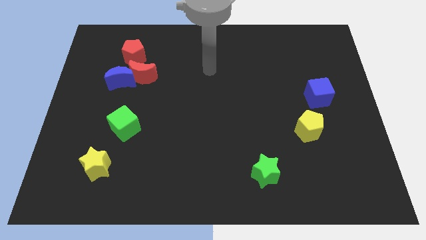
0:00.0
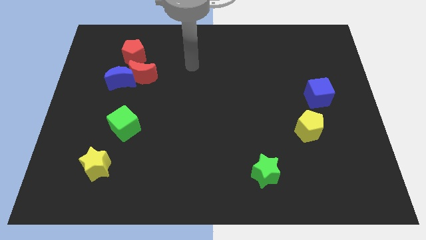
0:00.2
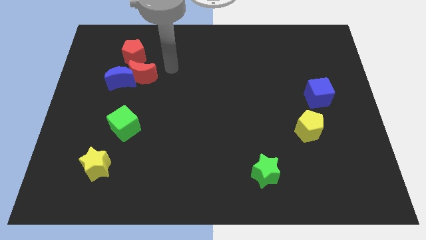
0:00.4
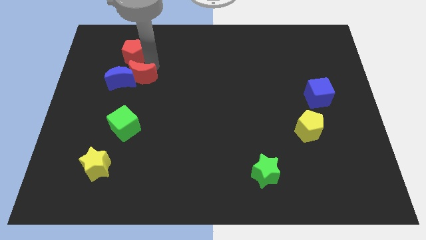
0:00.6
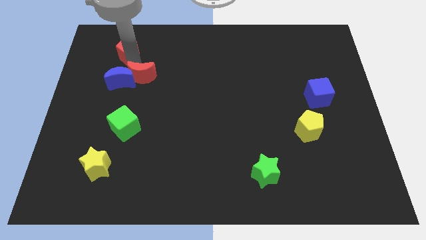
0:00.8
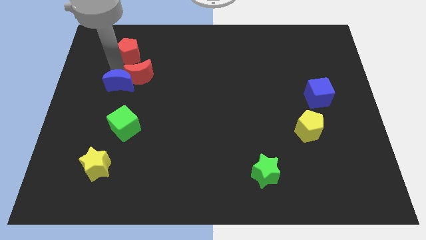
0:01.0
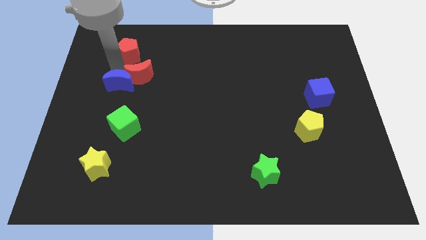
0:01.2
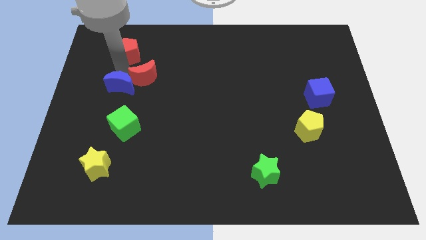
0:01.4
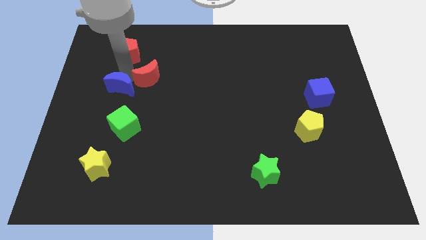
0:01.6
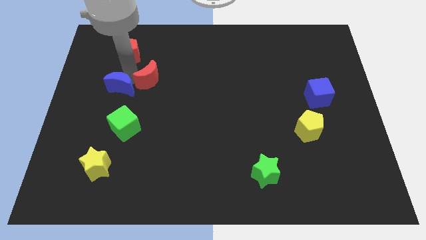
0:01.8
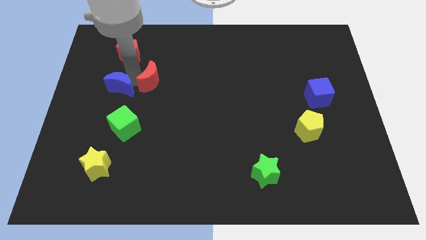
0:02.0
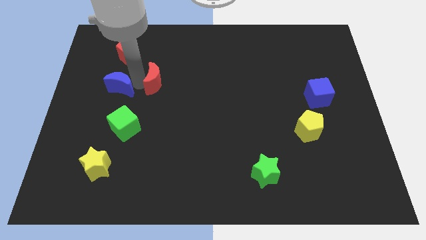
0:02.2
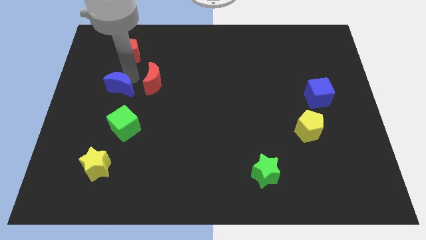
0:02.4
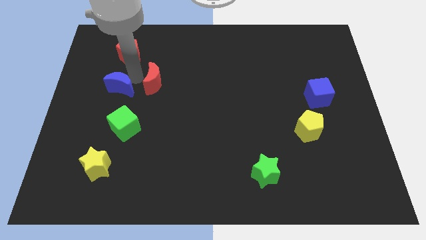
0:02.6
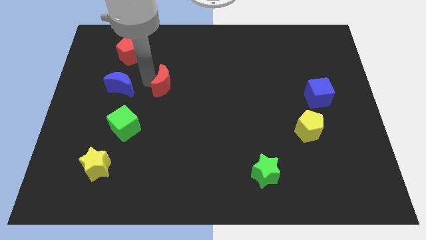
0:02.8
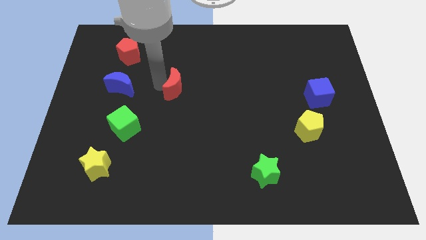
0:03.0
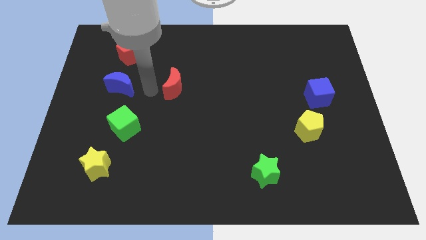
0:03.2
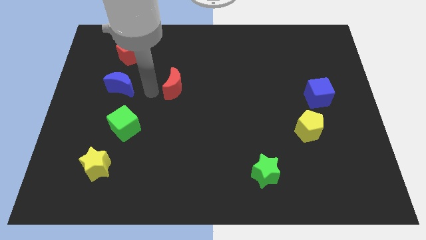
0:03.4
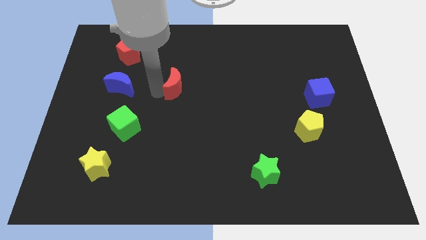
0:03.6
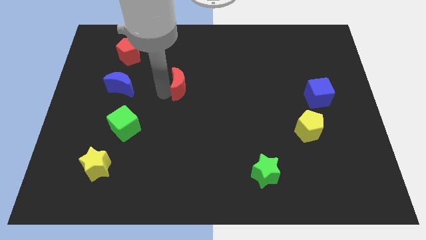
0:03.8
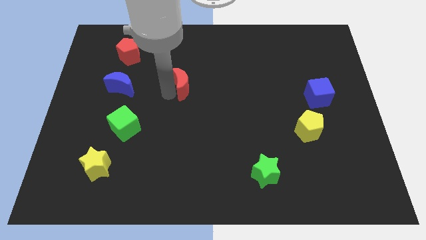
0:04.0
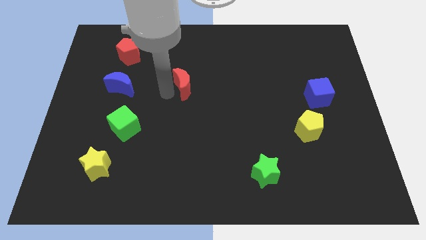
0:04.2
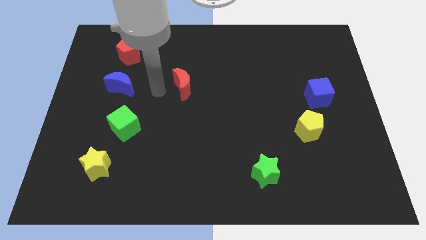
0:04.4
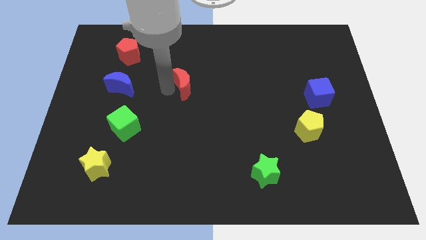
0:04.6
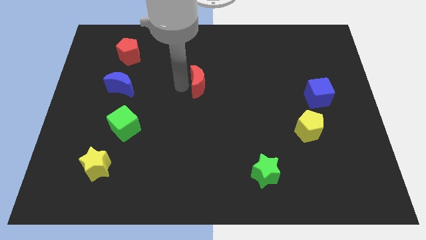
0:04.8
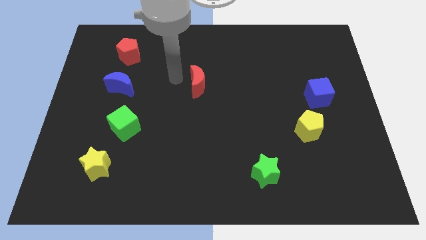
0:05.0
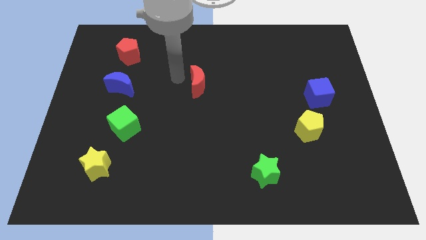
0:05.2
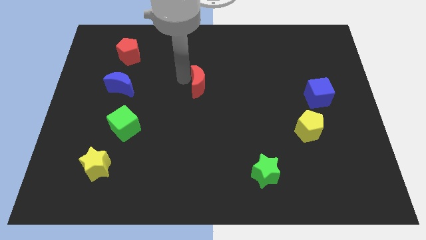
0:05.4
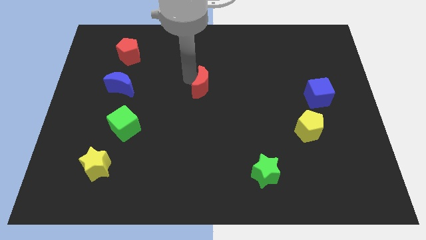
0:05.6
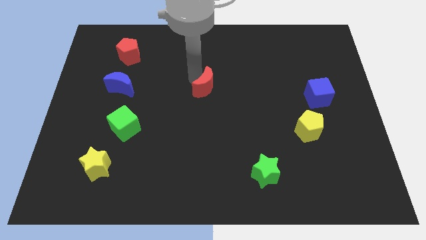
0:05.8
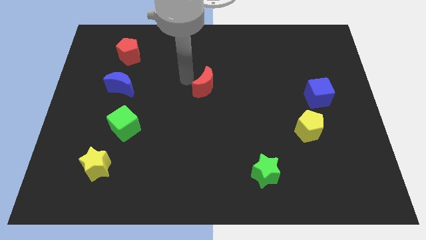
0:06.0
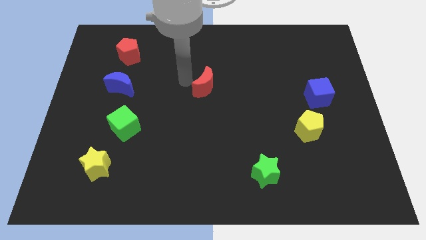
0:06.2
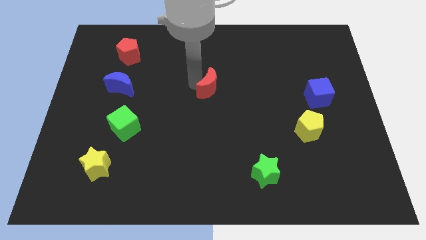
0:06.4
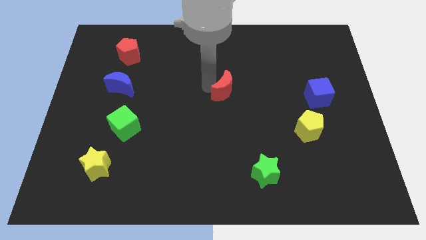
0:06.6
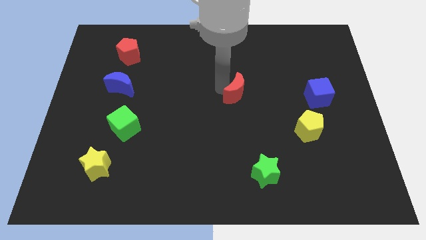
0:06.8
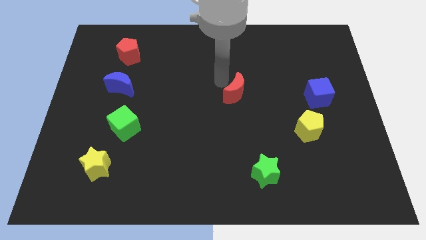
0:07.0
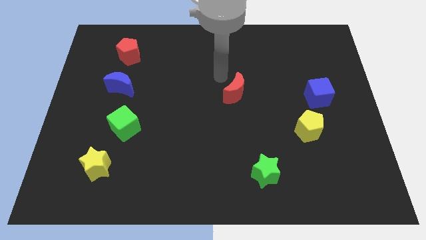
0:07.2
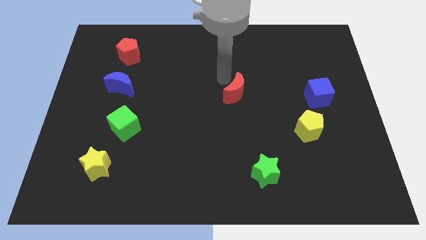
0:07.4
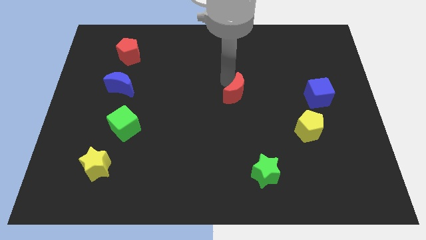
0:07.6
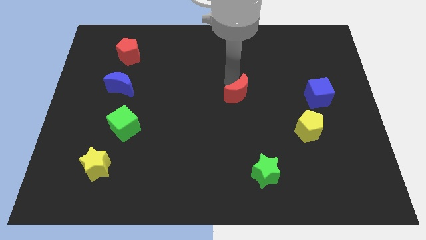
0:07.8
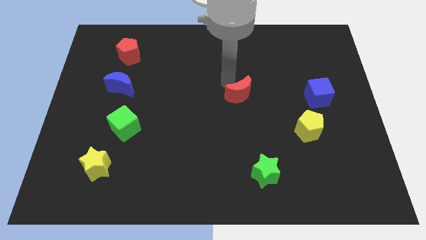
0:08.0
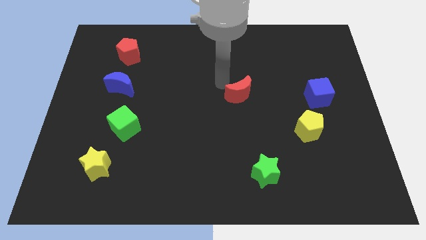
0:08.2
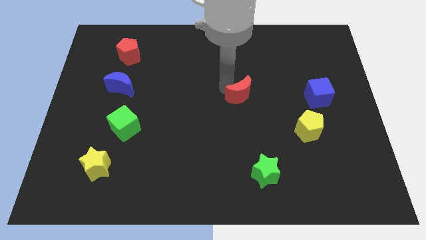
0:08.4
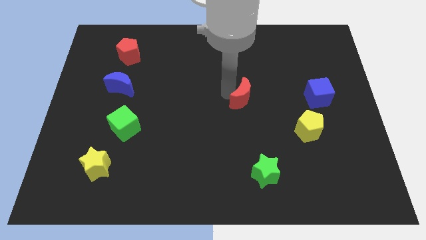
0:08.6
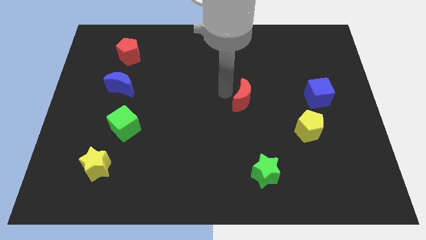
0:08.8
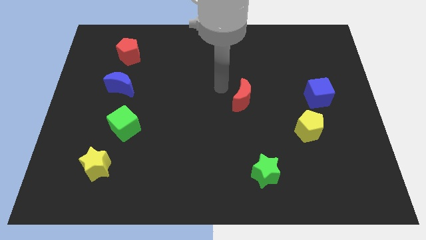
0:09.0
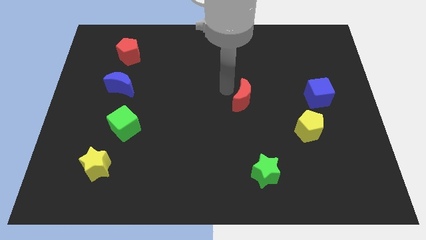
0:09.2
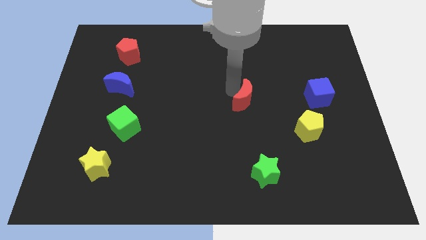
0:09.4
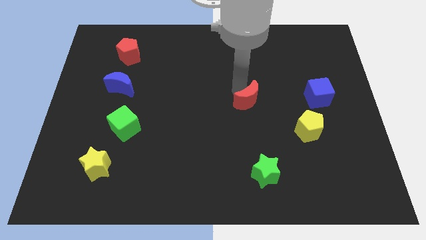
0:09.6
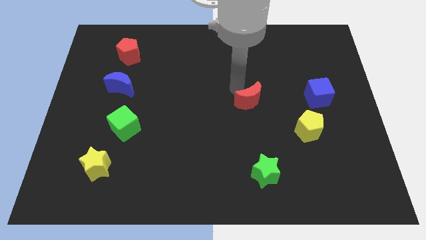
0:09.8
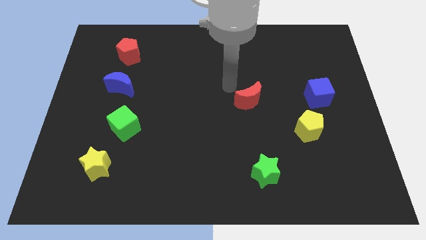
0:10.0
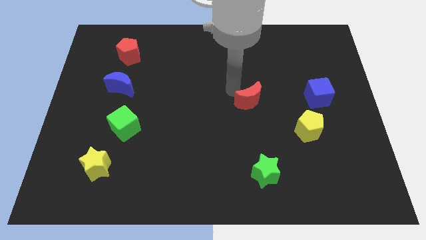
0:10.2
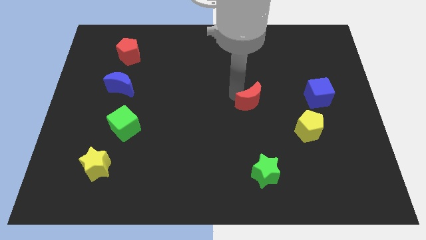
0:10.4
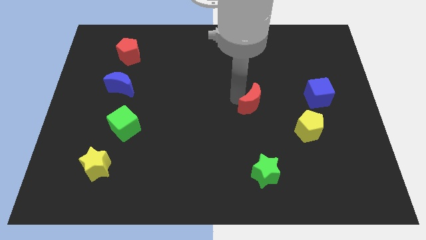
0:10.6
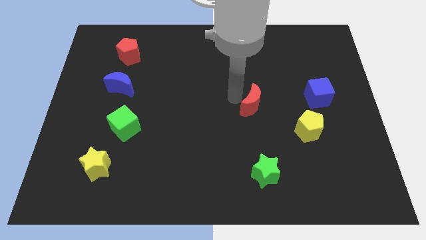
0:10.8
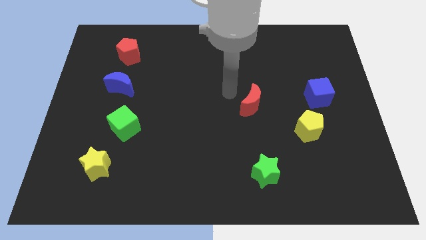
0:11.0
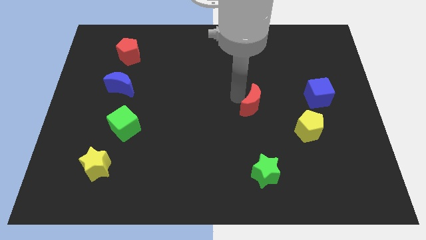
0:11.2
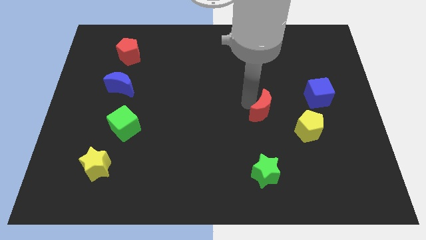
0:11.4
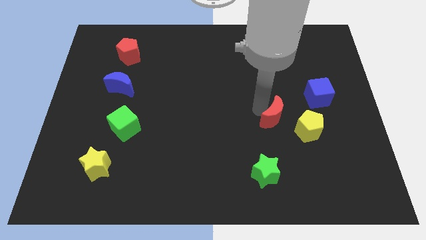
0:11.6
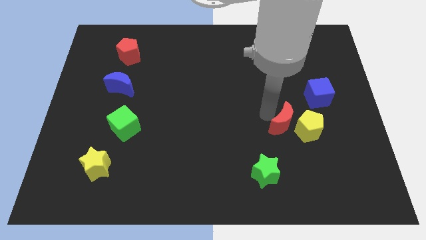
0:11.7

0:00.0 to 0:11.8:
move the red moon towards the yellow pentagon

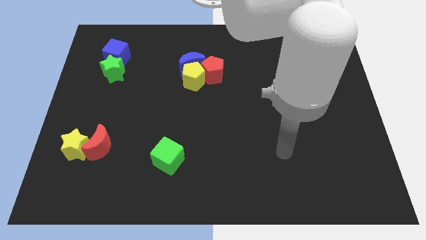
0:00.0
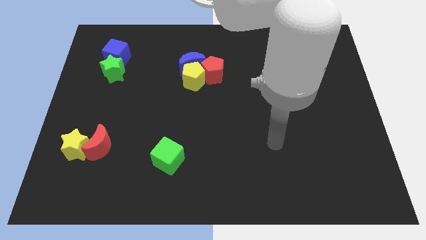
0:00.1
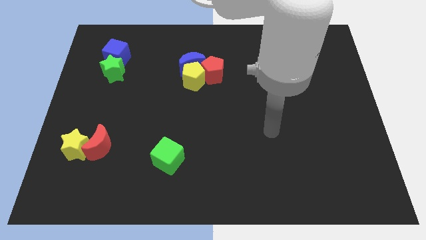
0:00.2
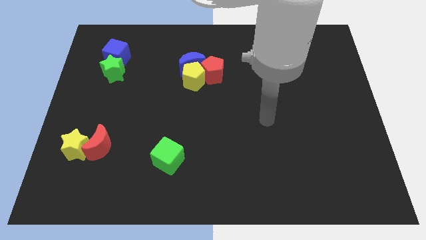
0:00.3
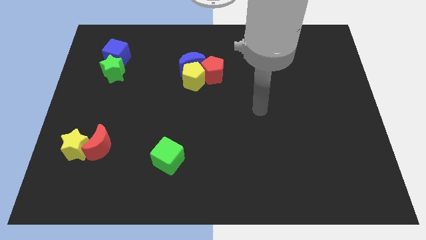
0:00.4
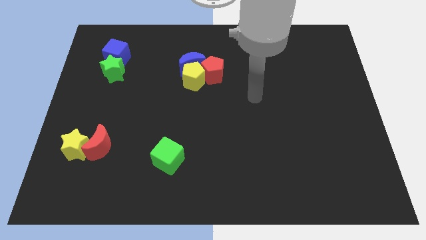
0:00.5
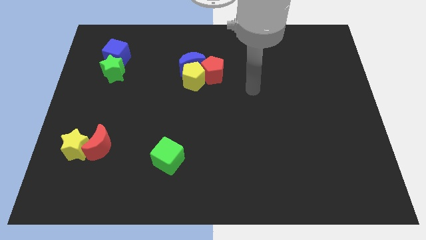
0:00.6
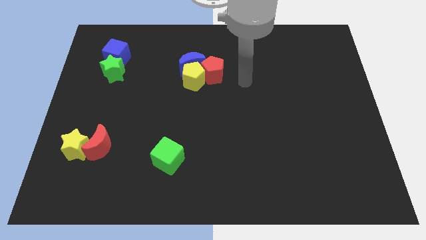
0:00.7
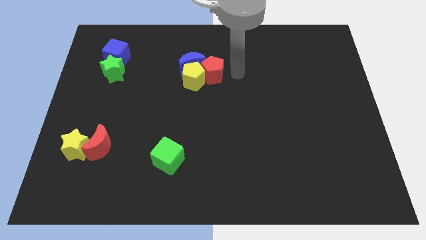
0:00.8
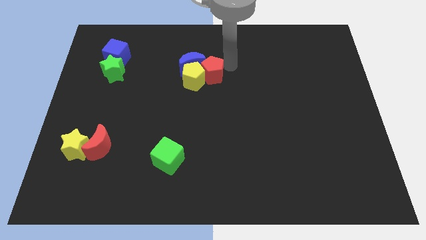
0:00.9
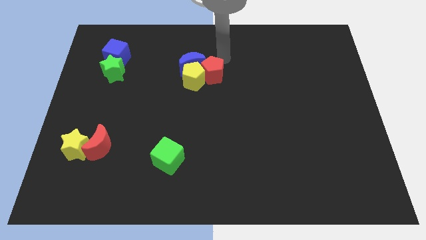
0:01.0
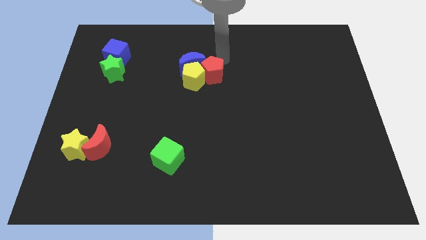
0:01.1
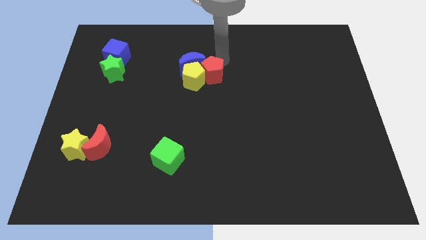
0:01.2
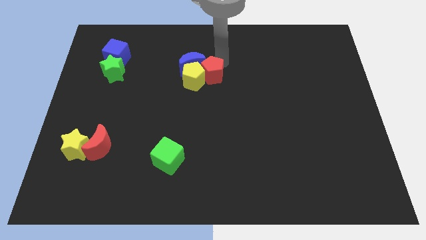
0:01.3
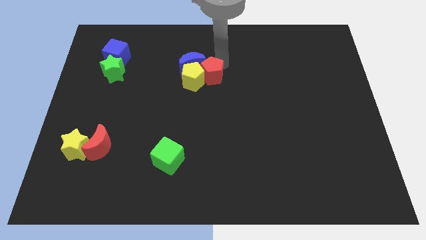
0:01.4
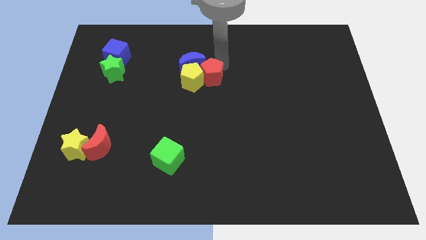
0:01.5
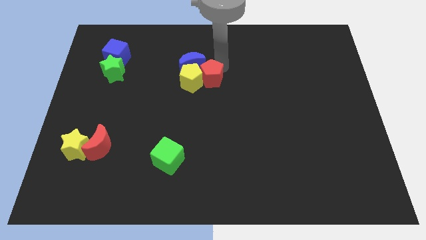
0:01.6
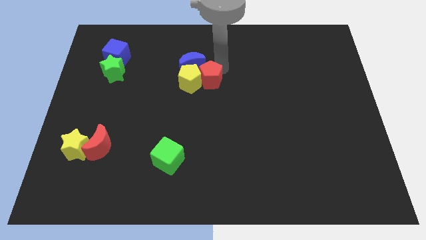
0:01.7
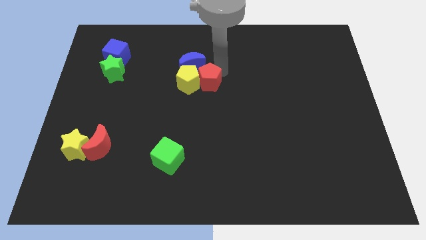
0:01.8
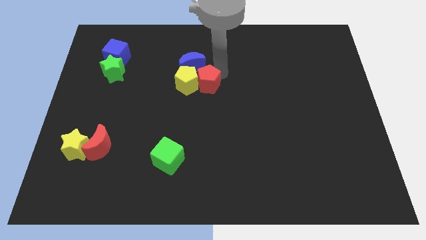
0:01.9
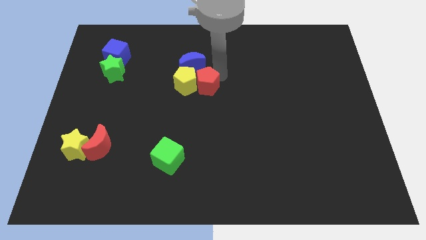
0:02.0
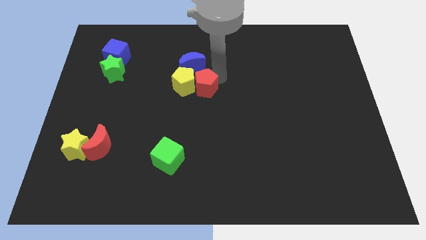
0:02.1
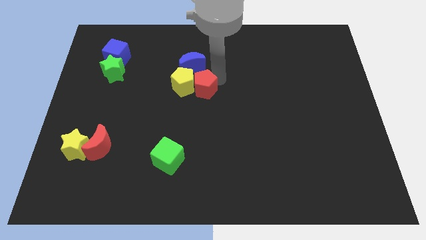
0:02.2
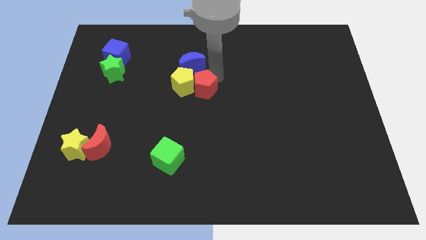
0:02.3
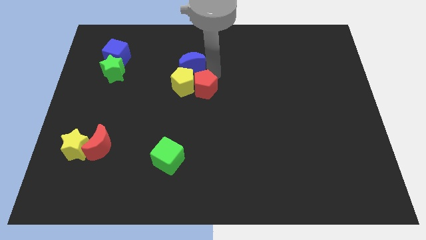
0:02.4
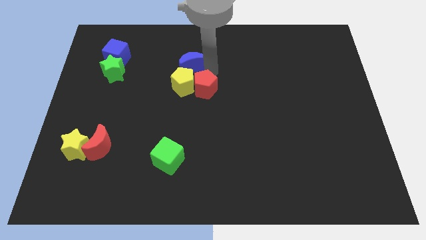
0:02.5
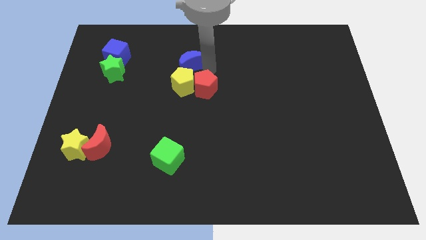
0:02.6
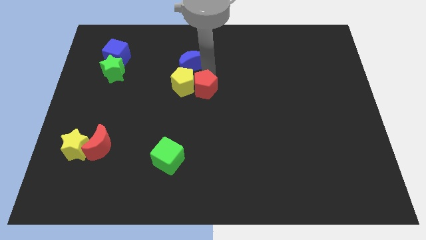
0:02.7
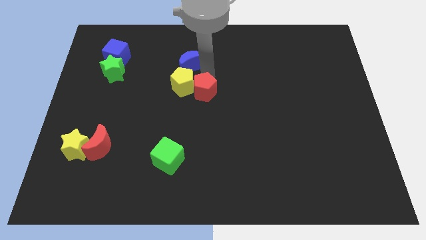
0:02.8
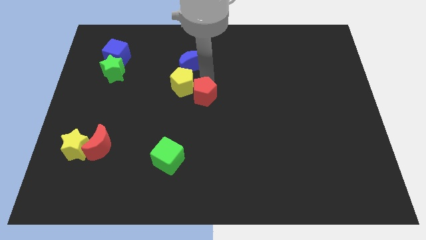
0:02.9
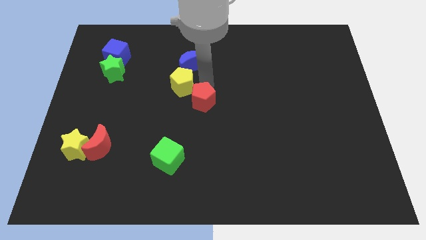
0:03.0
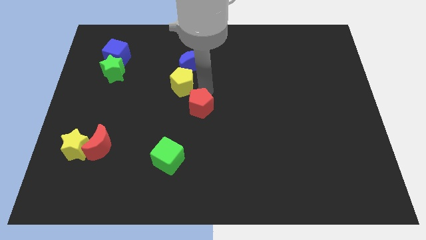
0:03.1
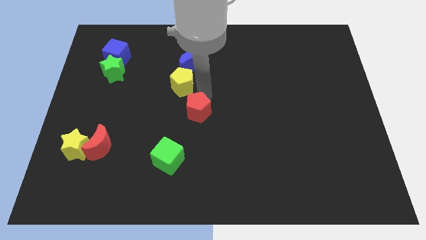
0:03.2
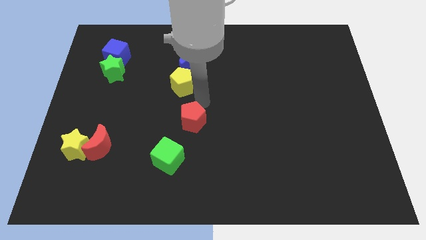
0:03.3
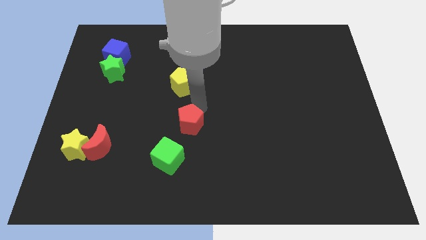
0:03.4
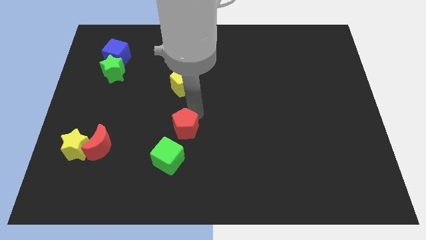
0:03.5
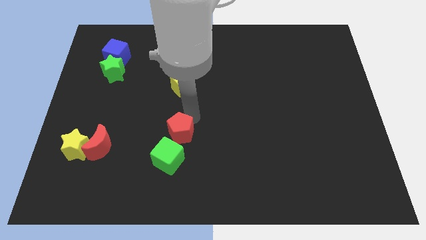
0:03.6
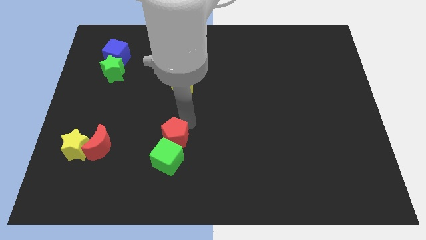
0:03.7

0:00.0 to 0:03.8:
push the red pentagon close to the green cube
